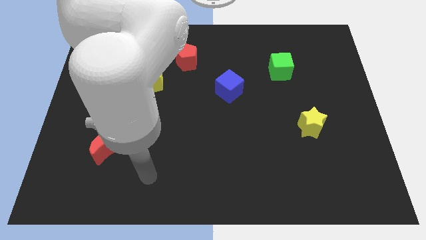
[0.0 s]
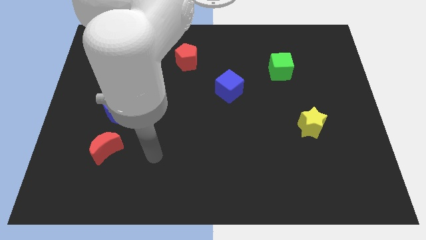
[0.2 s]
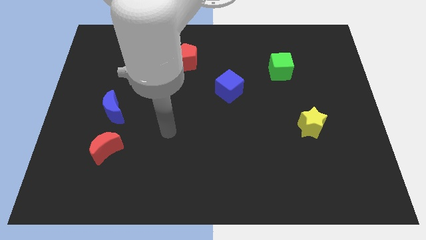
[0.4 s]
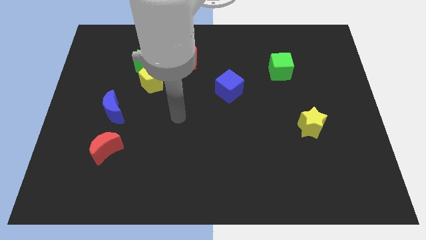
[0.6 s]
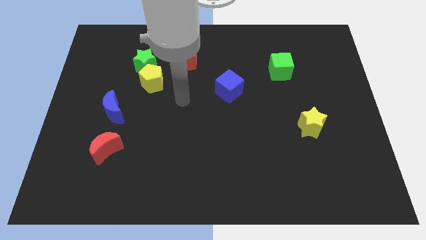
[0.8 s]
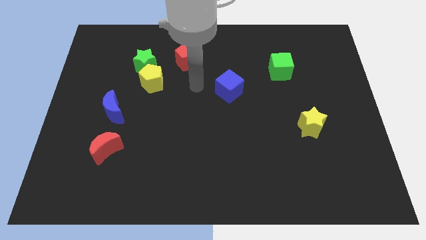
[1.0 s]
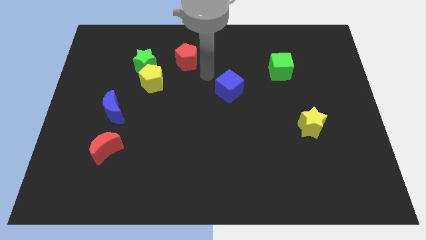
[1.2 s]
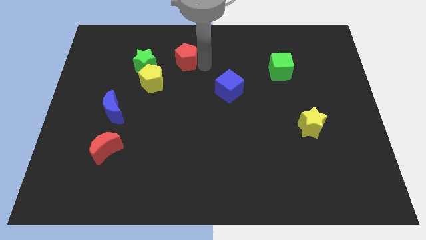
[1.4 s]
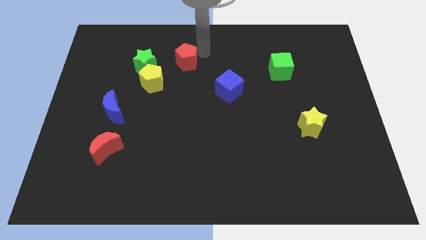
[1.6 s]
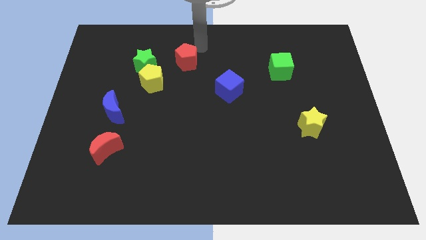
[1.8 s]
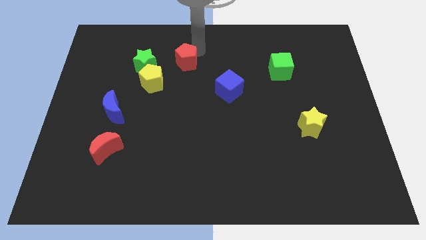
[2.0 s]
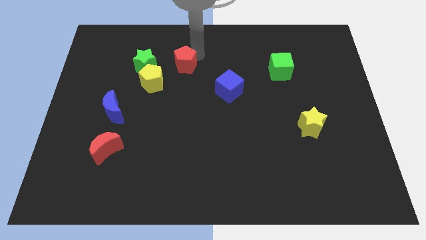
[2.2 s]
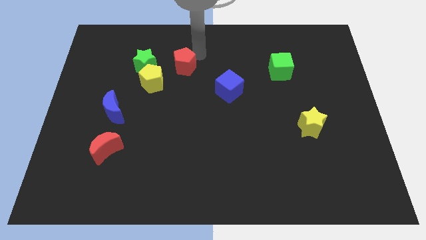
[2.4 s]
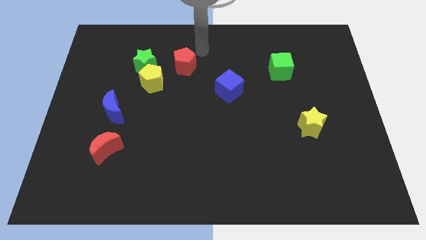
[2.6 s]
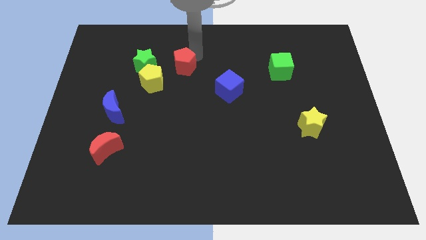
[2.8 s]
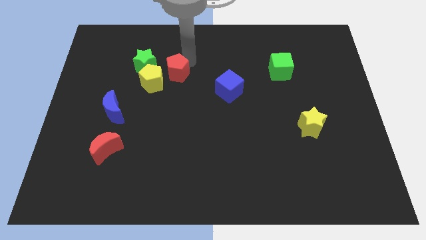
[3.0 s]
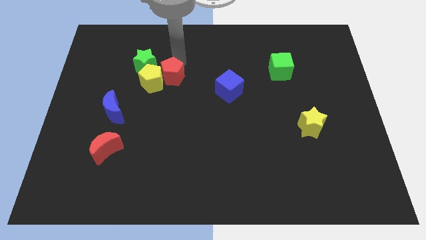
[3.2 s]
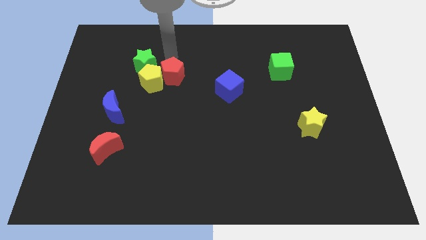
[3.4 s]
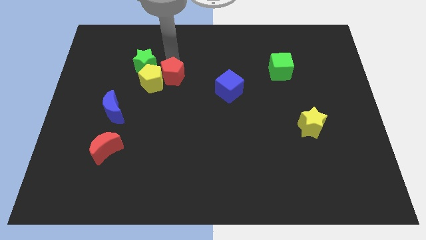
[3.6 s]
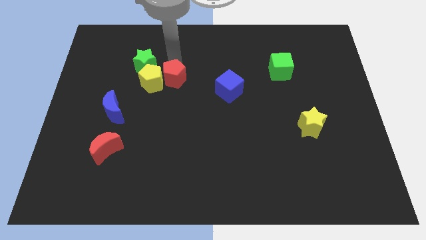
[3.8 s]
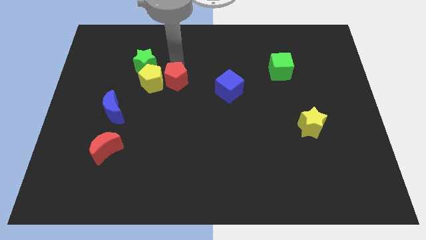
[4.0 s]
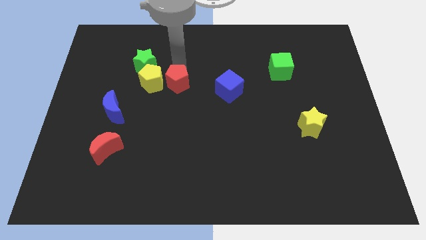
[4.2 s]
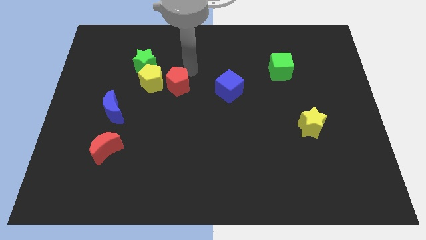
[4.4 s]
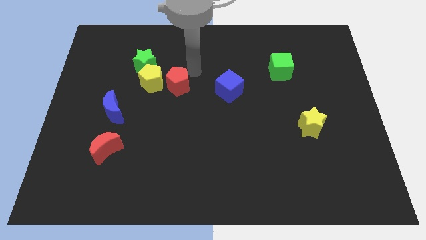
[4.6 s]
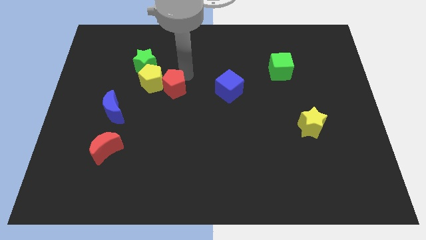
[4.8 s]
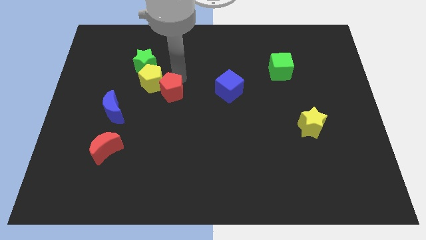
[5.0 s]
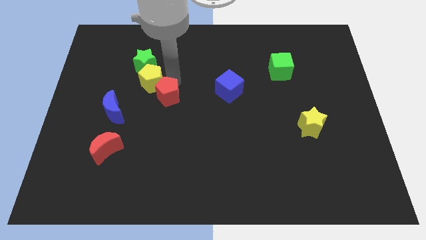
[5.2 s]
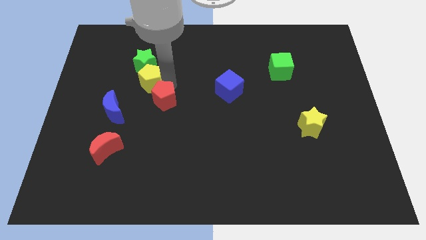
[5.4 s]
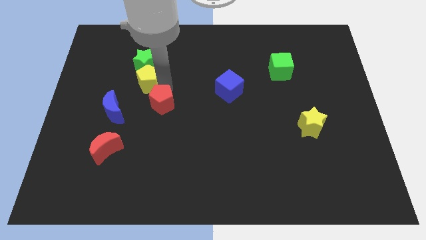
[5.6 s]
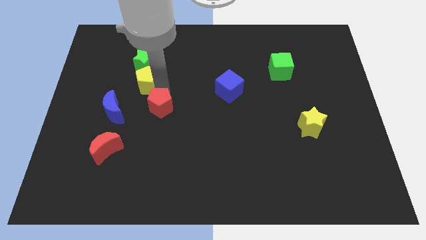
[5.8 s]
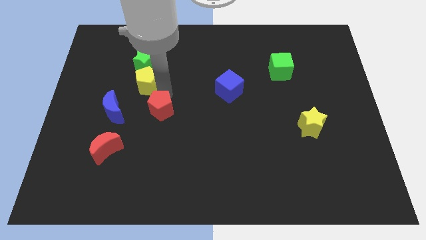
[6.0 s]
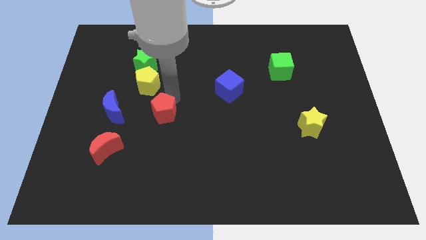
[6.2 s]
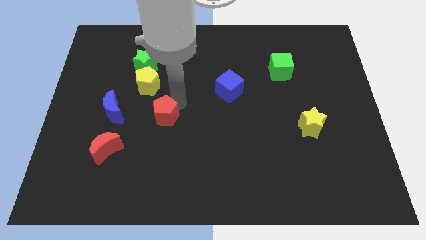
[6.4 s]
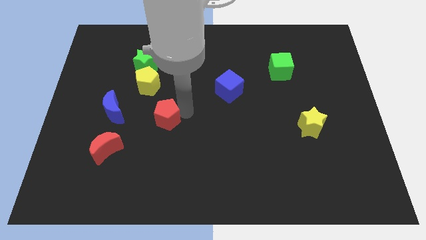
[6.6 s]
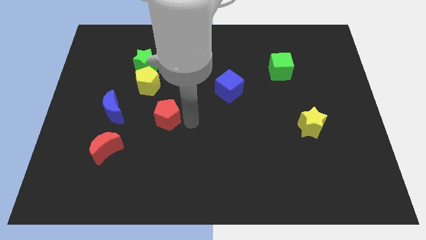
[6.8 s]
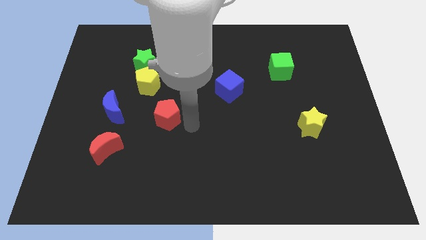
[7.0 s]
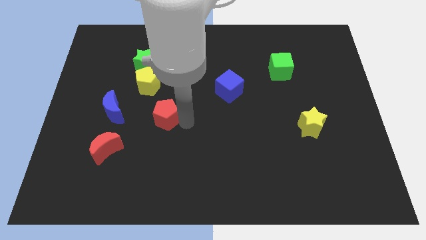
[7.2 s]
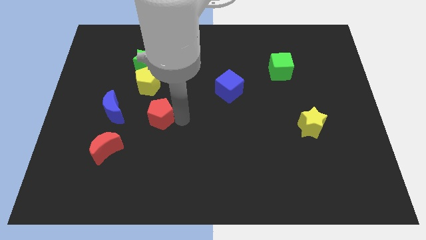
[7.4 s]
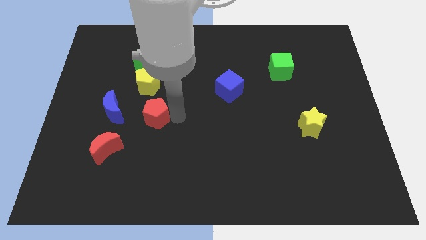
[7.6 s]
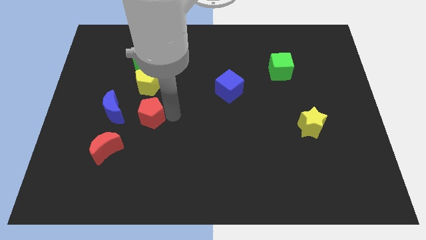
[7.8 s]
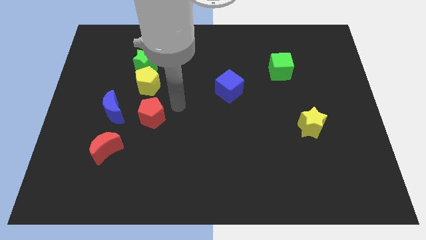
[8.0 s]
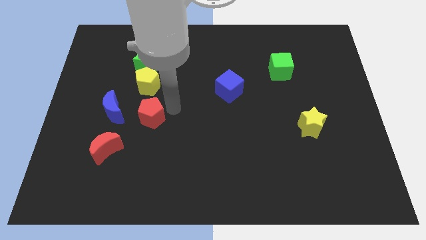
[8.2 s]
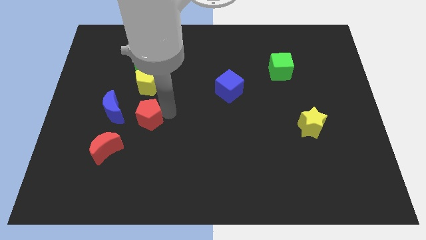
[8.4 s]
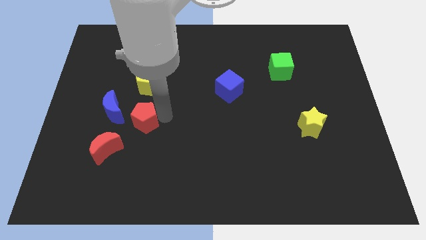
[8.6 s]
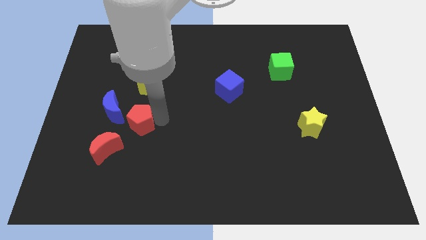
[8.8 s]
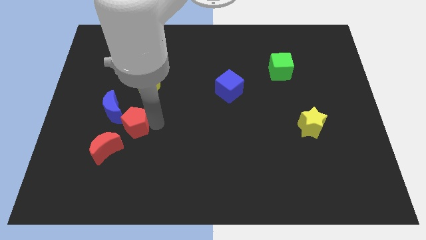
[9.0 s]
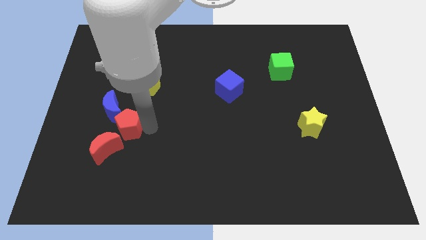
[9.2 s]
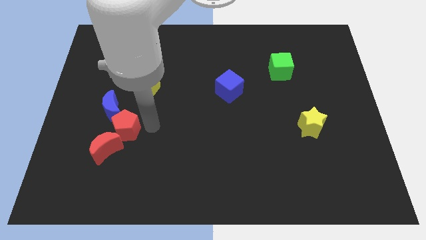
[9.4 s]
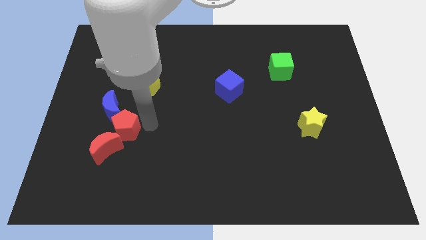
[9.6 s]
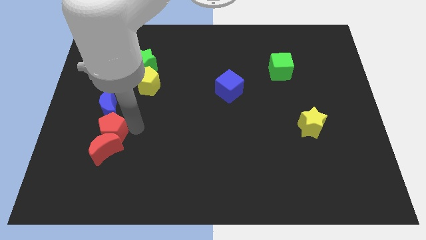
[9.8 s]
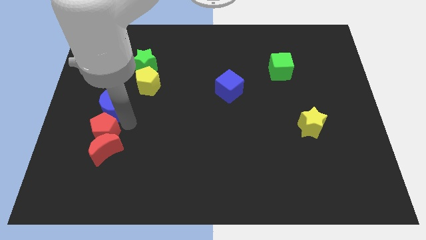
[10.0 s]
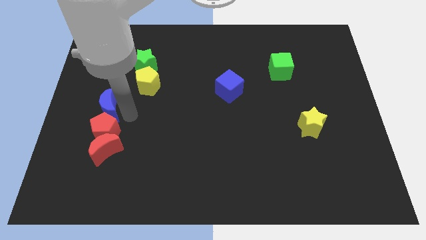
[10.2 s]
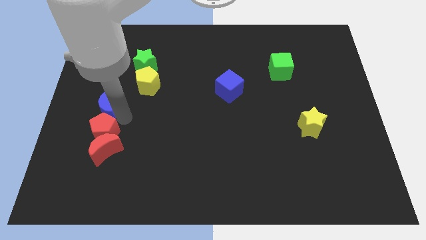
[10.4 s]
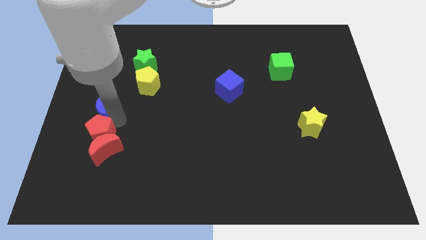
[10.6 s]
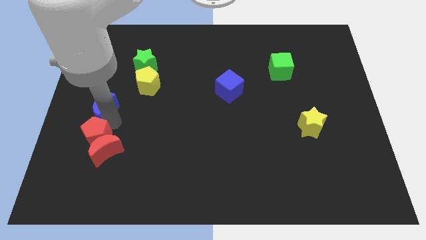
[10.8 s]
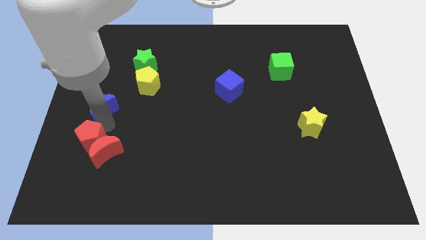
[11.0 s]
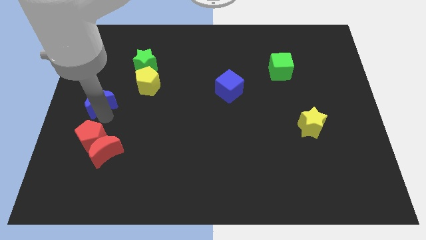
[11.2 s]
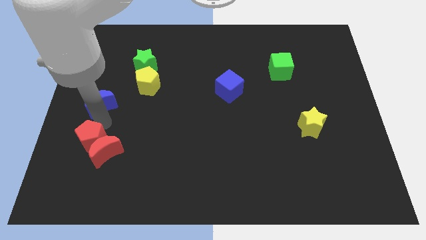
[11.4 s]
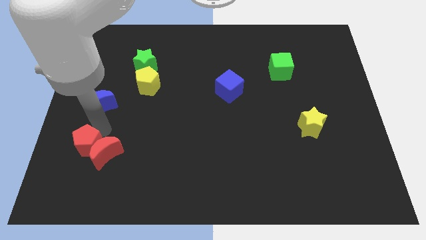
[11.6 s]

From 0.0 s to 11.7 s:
slide the red pentagon diagonally down and to the left of the red moon

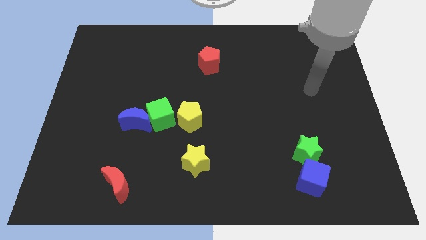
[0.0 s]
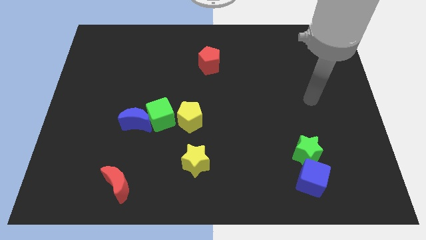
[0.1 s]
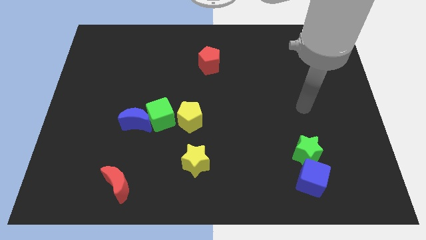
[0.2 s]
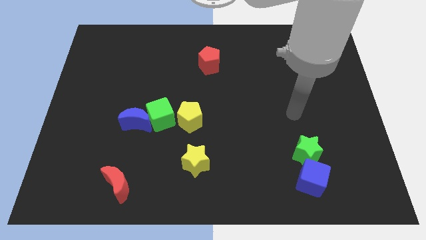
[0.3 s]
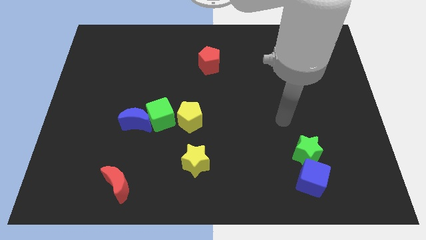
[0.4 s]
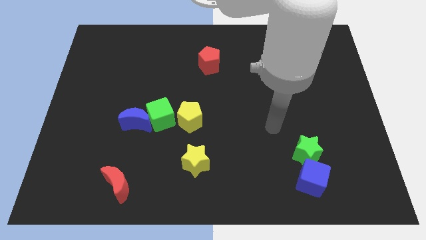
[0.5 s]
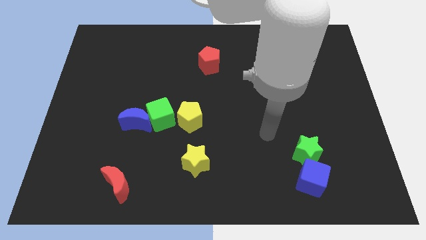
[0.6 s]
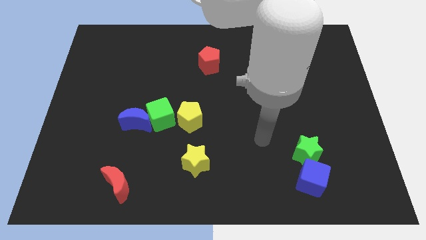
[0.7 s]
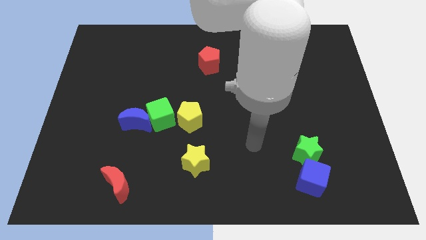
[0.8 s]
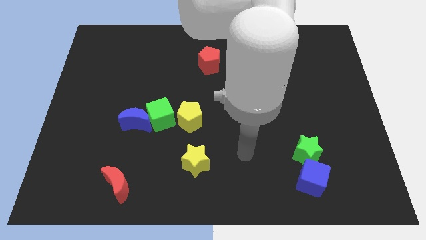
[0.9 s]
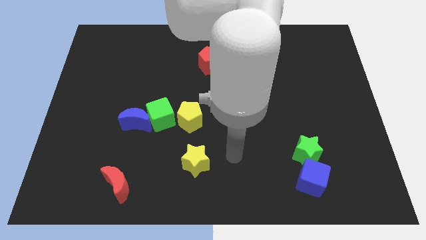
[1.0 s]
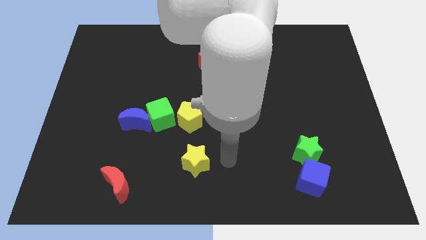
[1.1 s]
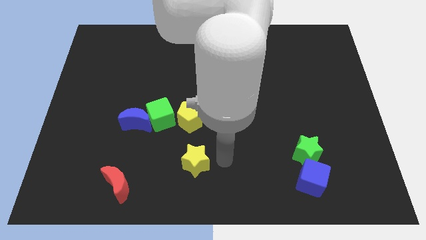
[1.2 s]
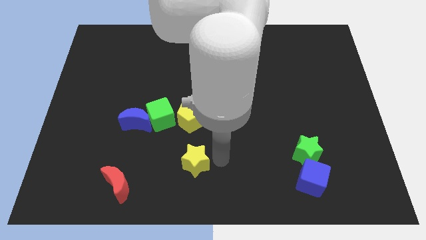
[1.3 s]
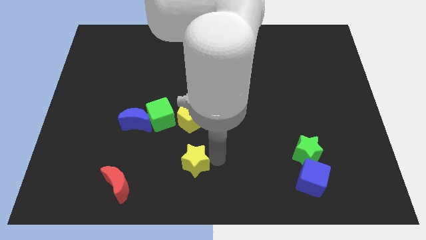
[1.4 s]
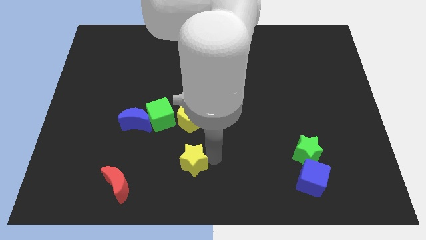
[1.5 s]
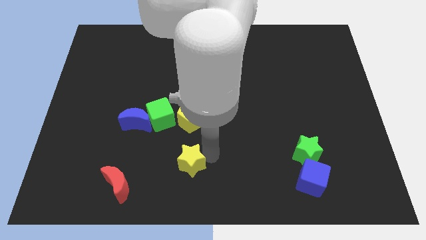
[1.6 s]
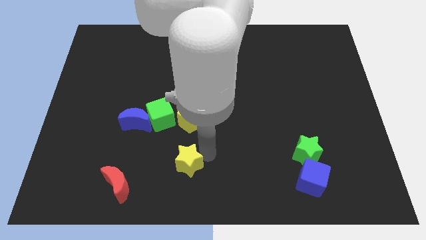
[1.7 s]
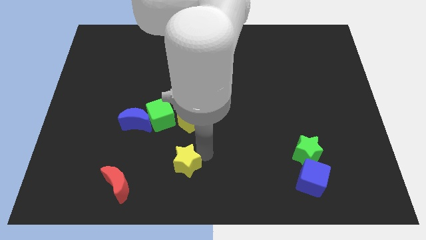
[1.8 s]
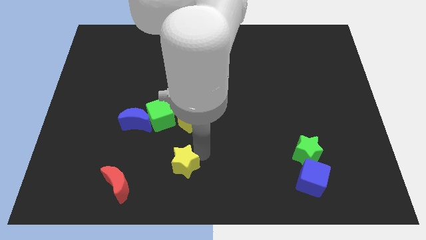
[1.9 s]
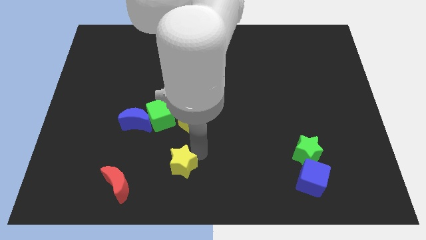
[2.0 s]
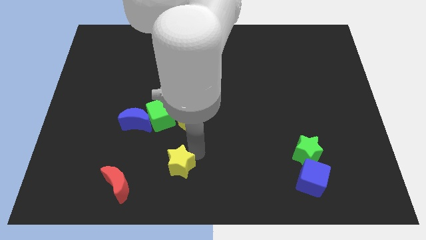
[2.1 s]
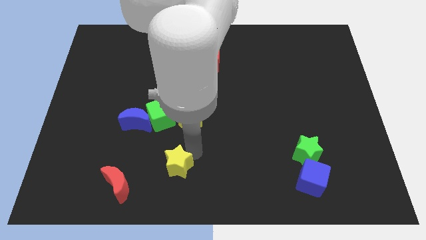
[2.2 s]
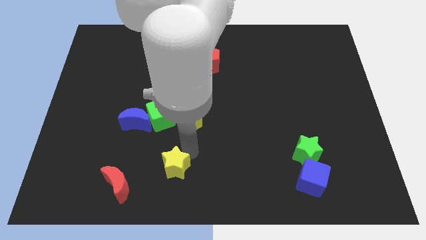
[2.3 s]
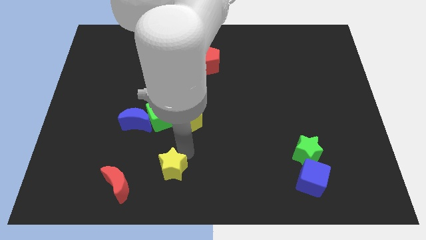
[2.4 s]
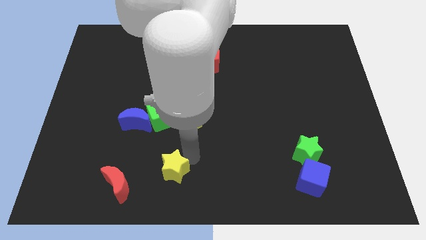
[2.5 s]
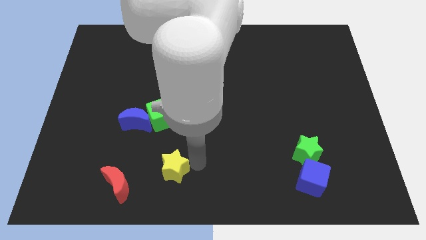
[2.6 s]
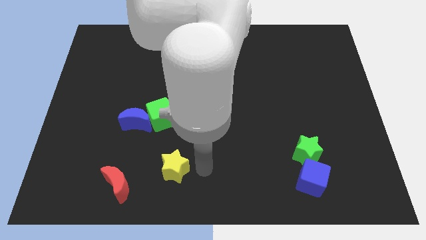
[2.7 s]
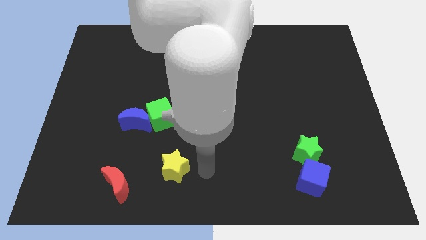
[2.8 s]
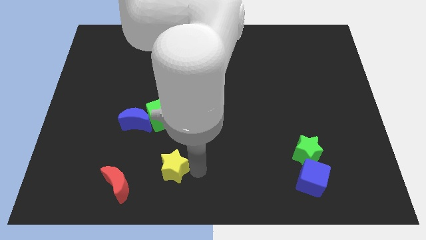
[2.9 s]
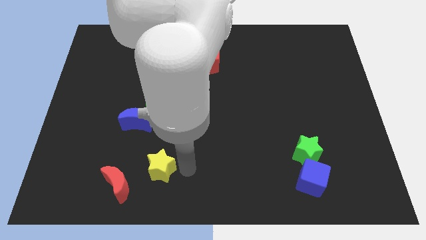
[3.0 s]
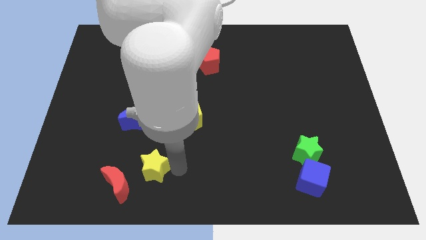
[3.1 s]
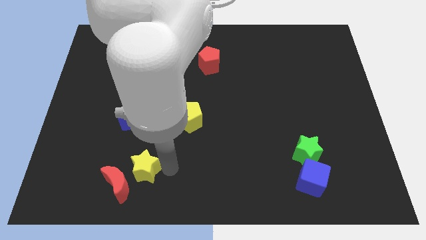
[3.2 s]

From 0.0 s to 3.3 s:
slide the yellow star below the blue moon
